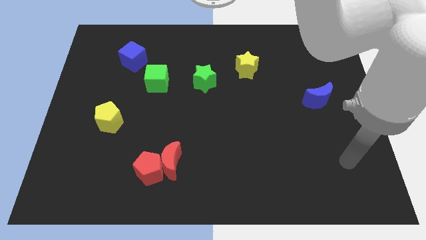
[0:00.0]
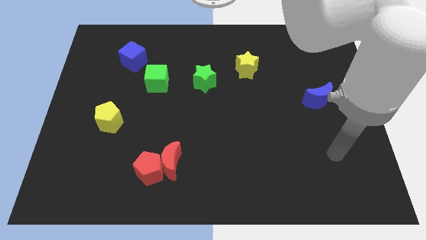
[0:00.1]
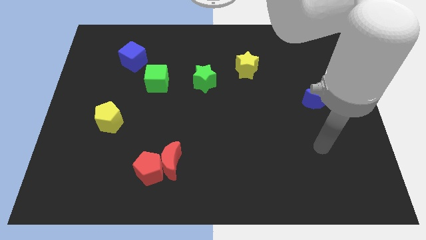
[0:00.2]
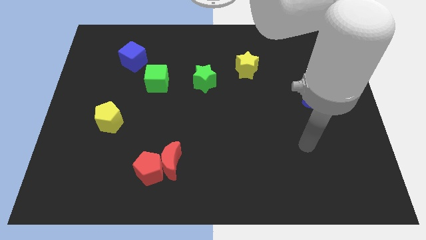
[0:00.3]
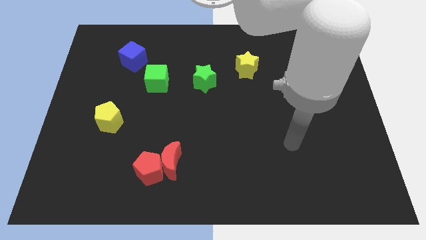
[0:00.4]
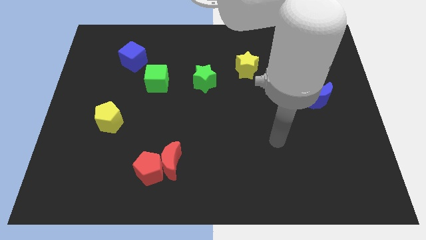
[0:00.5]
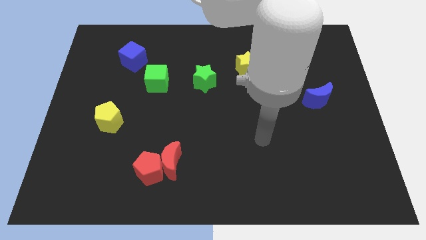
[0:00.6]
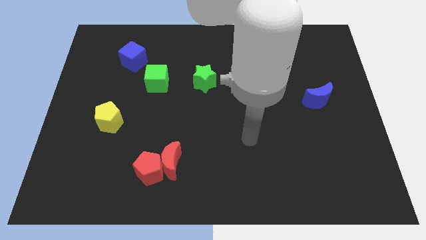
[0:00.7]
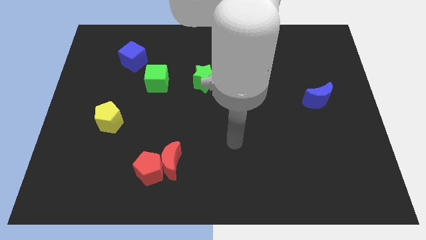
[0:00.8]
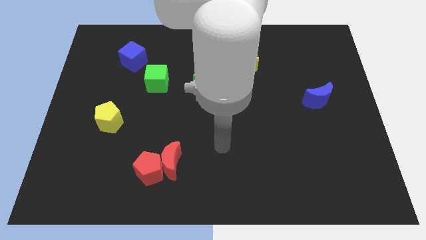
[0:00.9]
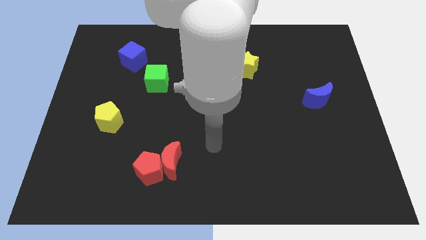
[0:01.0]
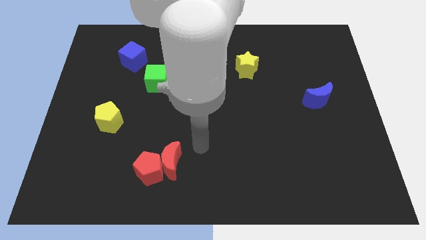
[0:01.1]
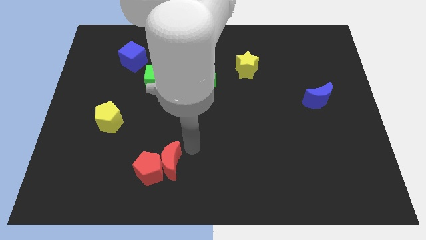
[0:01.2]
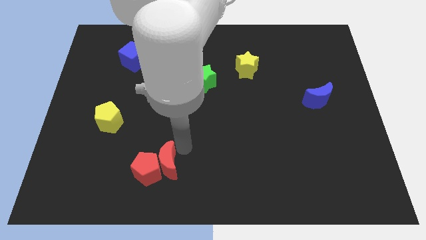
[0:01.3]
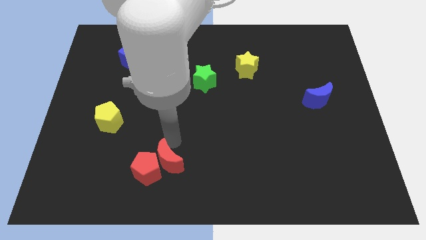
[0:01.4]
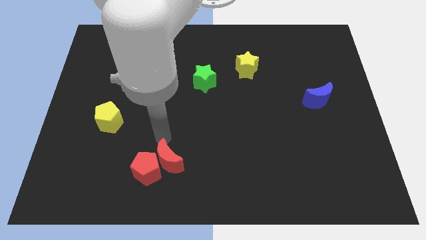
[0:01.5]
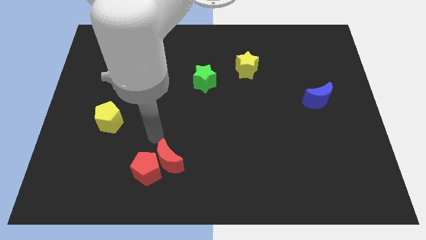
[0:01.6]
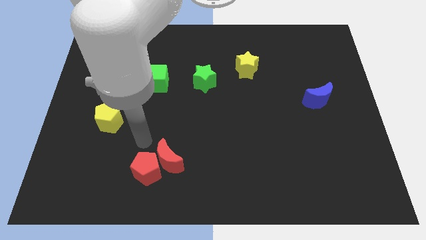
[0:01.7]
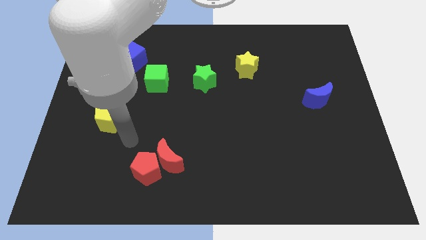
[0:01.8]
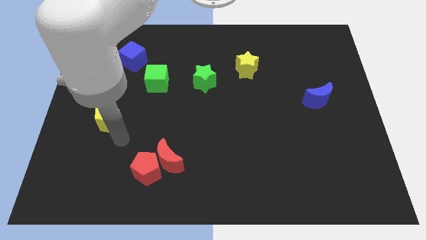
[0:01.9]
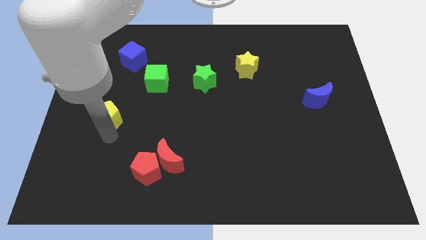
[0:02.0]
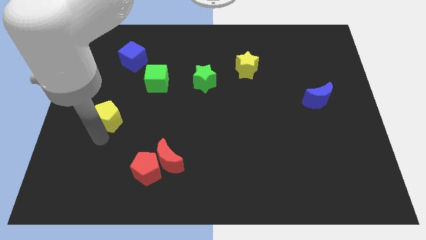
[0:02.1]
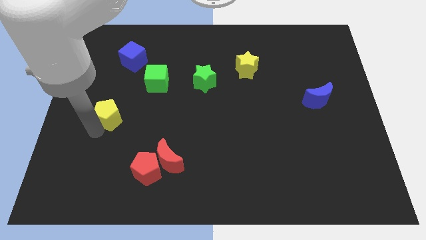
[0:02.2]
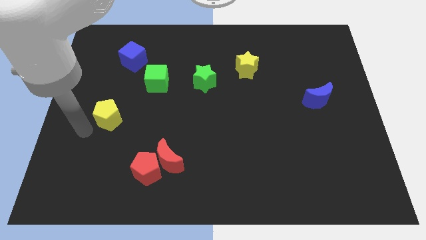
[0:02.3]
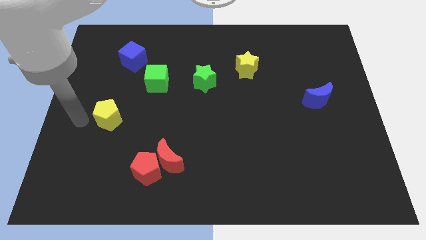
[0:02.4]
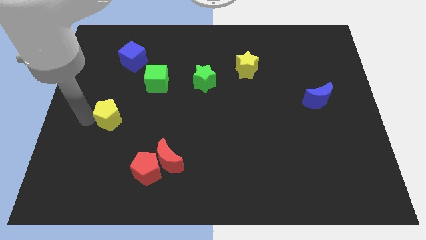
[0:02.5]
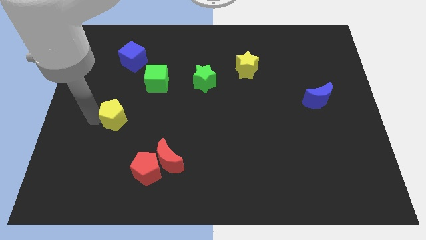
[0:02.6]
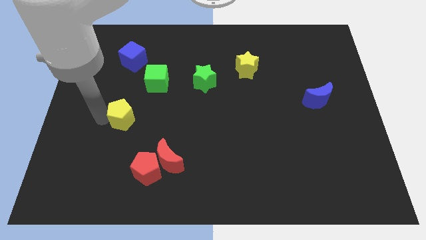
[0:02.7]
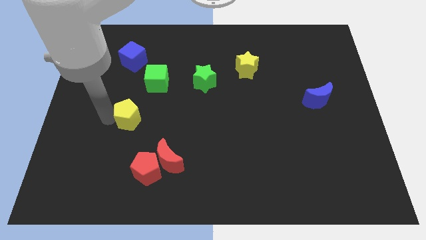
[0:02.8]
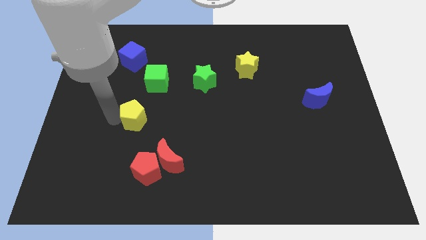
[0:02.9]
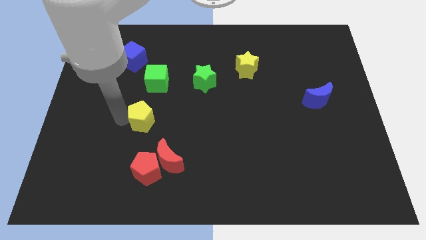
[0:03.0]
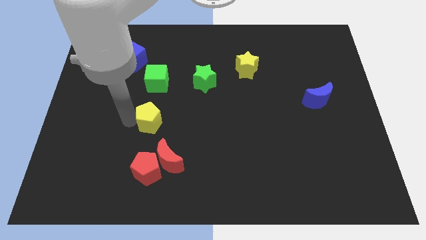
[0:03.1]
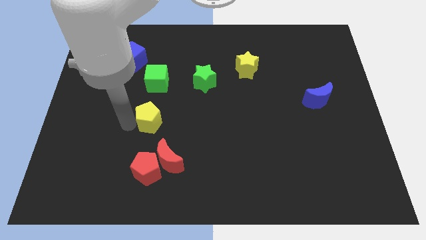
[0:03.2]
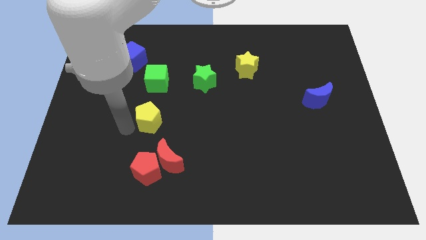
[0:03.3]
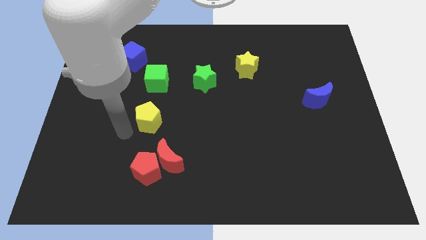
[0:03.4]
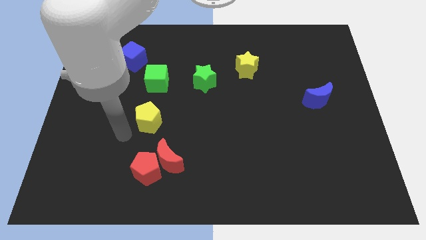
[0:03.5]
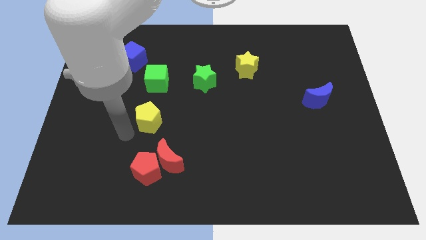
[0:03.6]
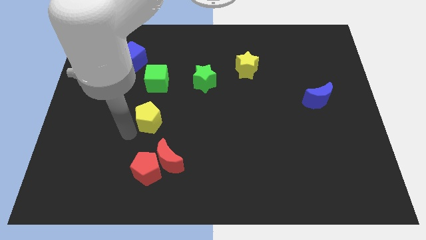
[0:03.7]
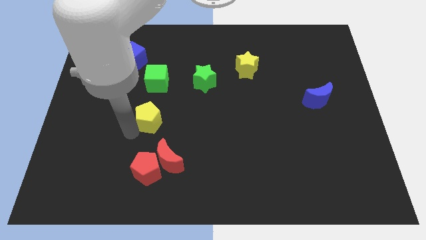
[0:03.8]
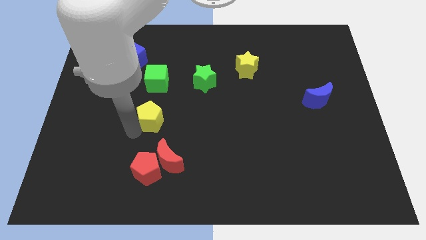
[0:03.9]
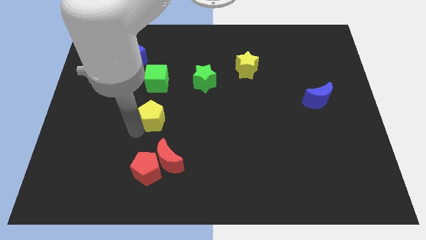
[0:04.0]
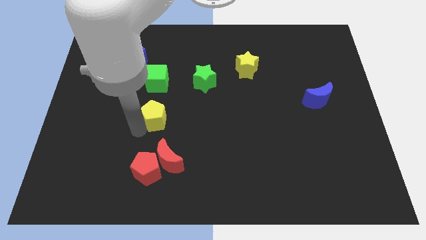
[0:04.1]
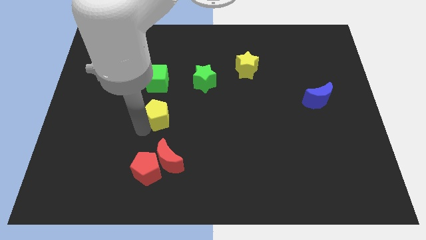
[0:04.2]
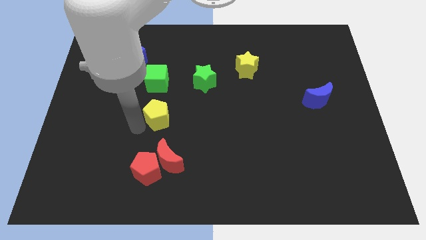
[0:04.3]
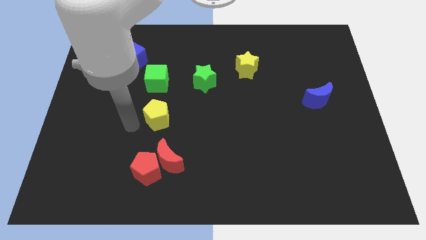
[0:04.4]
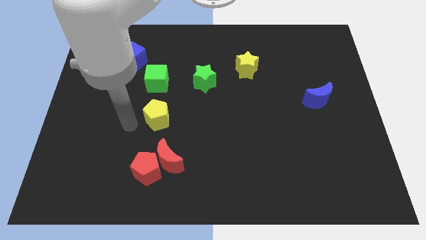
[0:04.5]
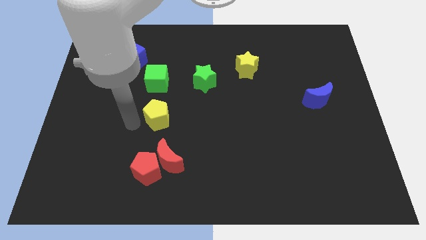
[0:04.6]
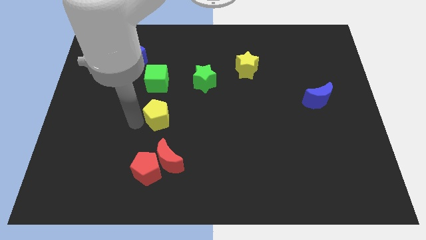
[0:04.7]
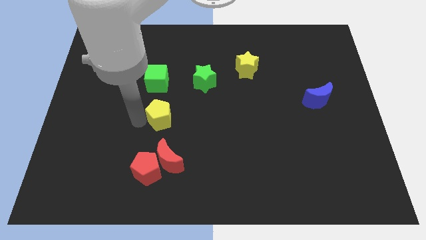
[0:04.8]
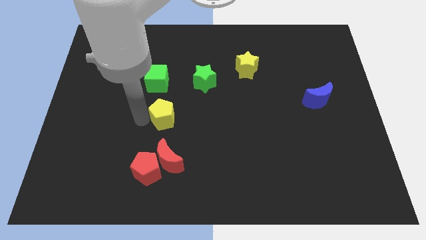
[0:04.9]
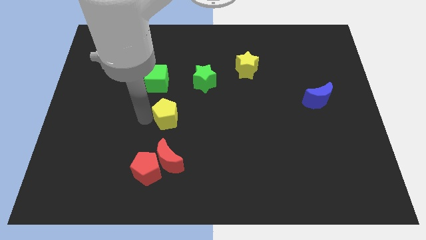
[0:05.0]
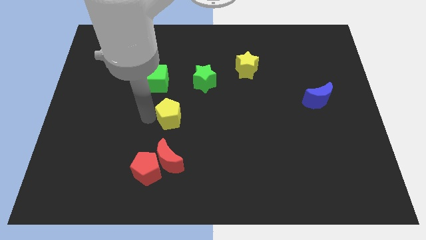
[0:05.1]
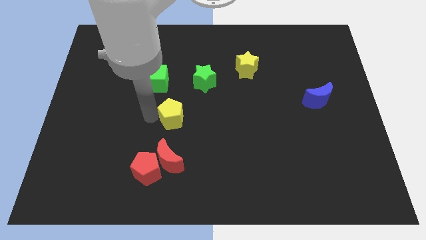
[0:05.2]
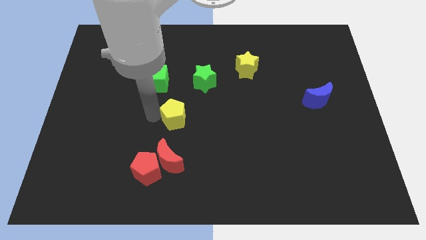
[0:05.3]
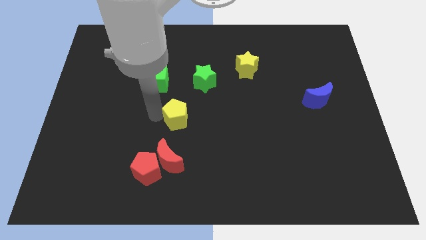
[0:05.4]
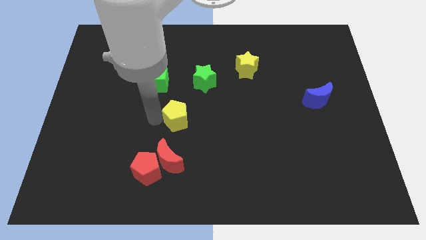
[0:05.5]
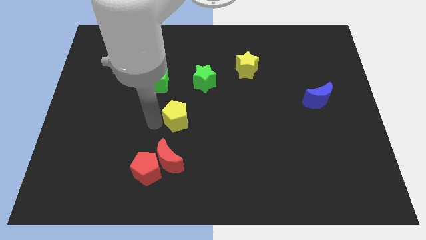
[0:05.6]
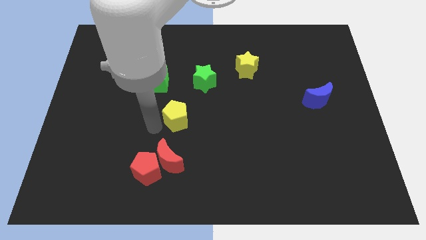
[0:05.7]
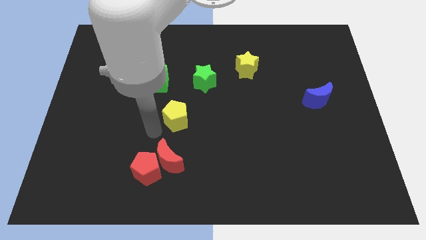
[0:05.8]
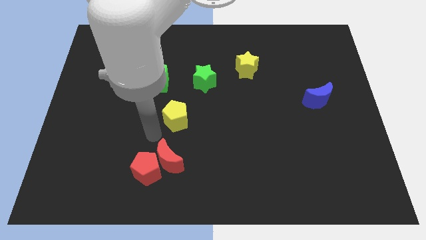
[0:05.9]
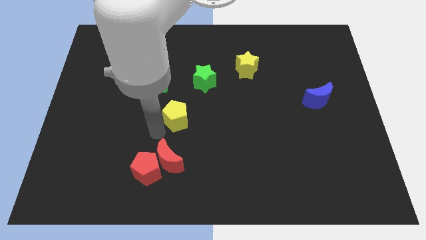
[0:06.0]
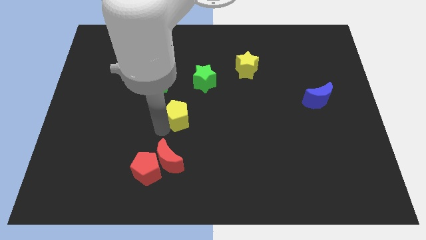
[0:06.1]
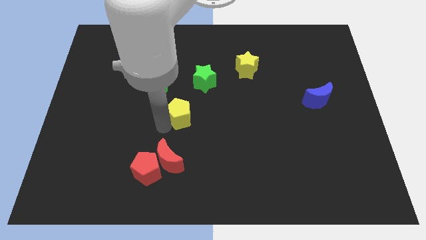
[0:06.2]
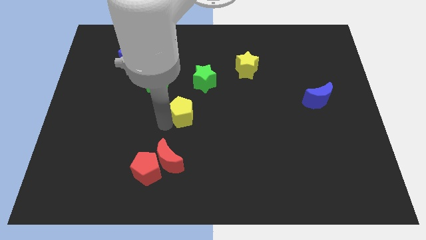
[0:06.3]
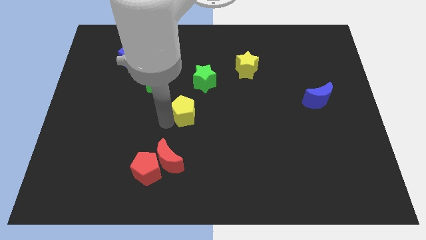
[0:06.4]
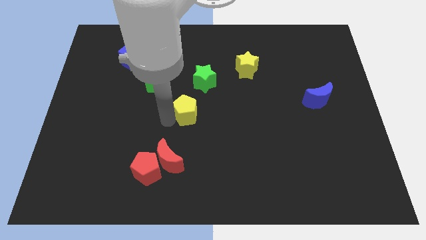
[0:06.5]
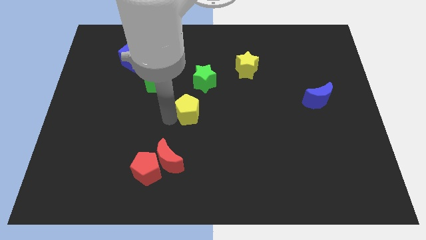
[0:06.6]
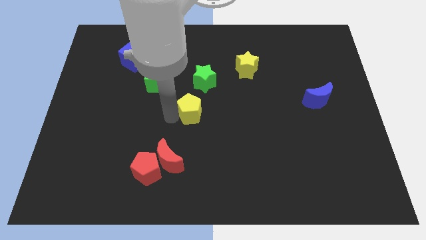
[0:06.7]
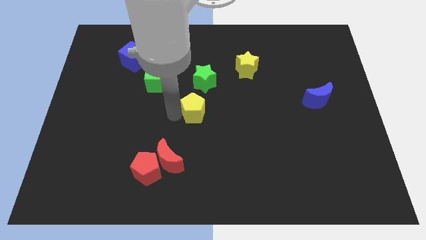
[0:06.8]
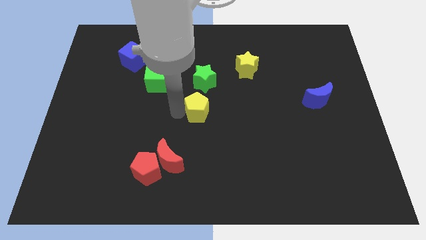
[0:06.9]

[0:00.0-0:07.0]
move the yellow pentagon to the right

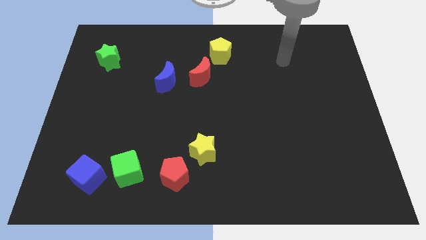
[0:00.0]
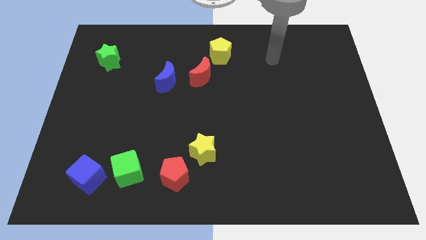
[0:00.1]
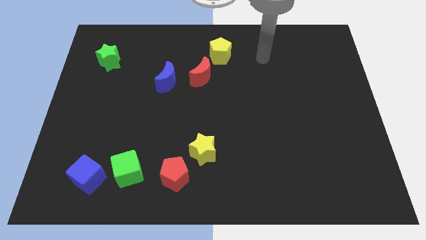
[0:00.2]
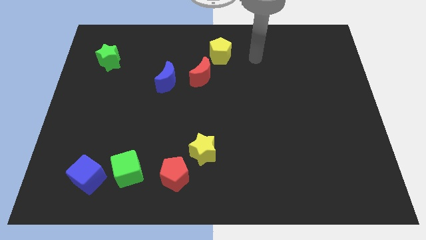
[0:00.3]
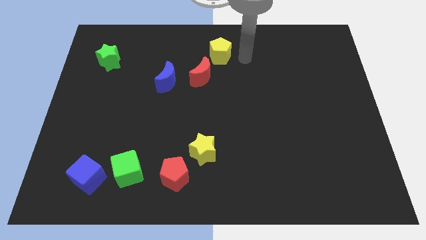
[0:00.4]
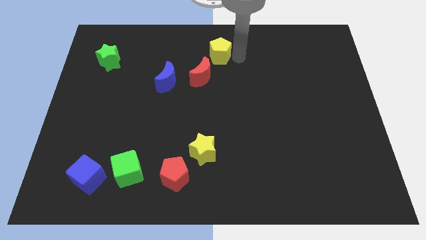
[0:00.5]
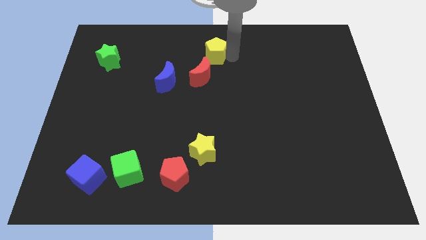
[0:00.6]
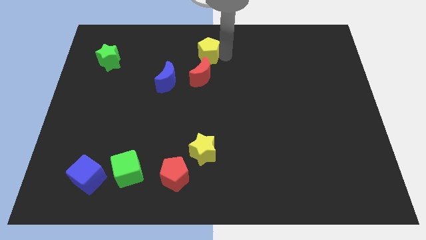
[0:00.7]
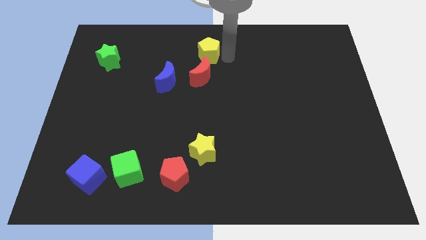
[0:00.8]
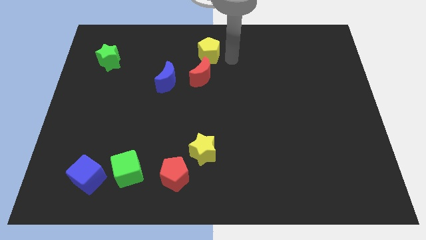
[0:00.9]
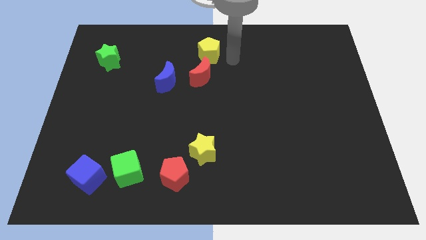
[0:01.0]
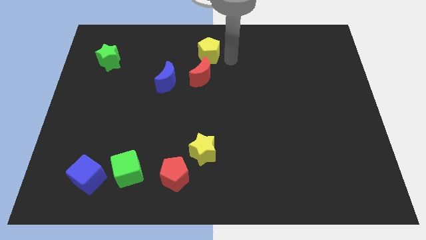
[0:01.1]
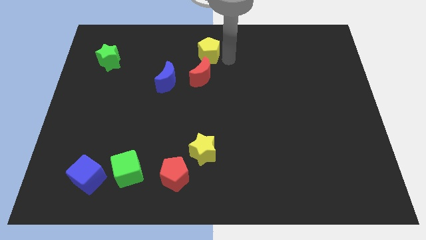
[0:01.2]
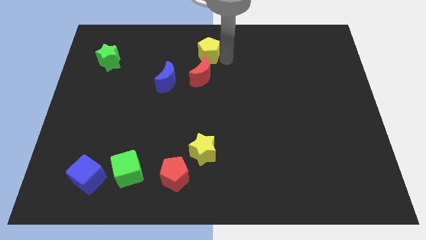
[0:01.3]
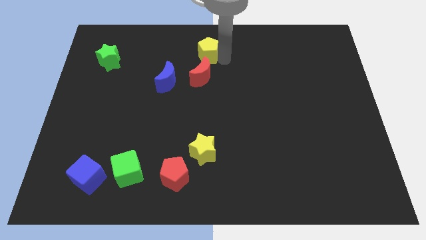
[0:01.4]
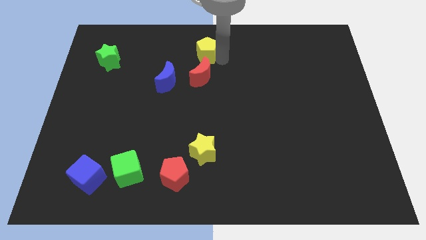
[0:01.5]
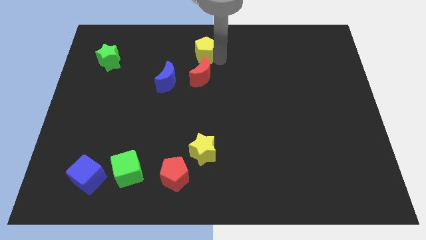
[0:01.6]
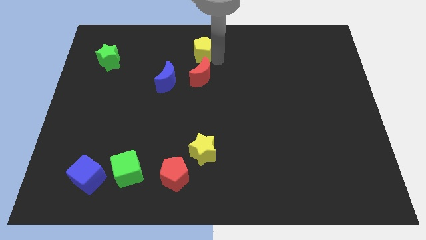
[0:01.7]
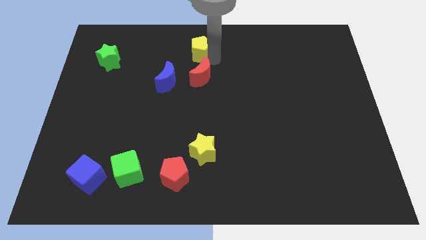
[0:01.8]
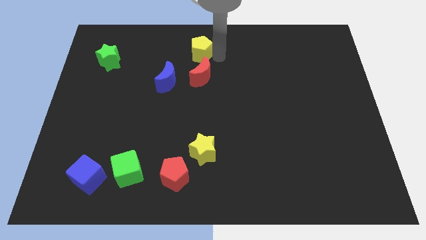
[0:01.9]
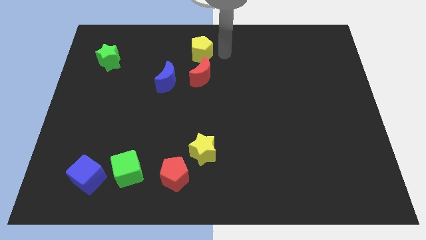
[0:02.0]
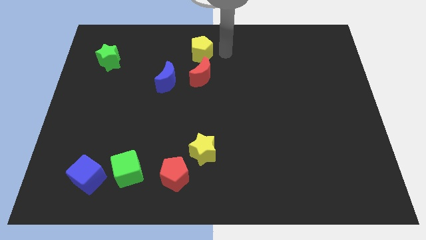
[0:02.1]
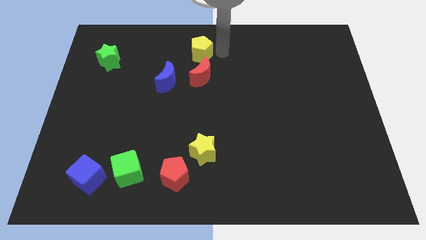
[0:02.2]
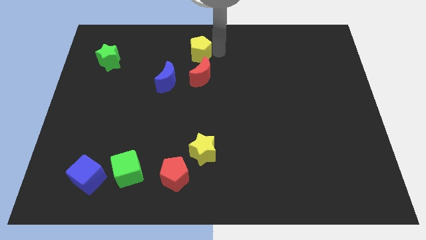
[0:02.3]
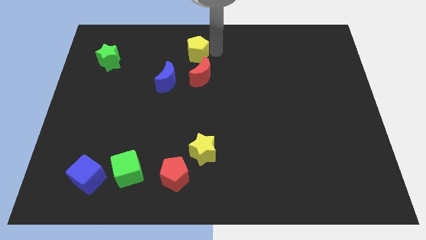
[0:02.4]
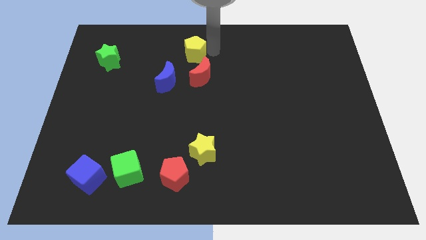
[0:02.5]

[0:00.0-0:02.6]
move the yellow pentagon to the left a little bit
